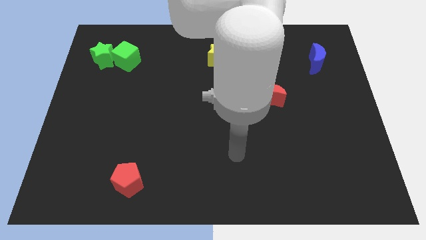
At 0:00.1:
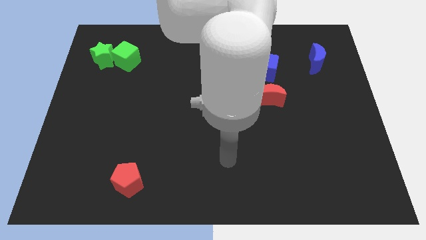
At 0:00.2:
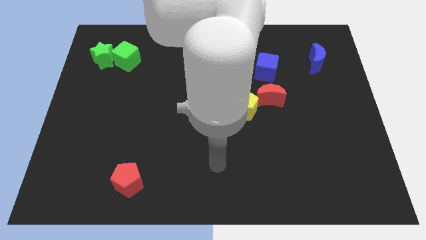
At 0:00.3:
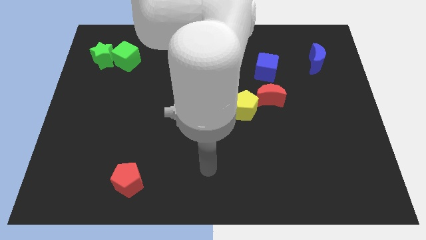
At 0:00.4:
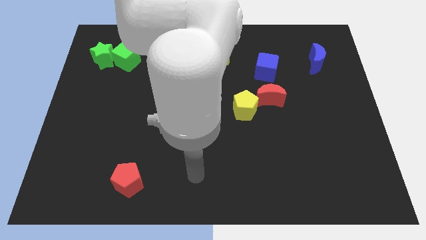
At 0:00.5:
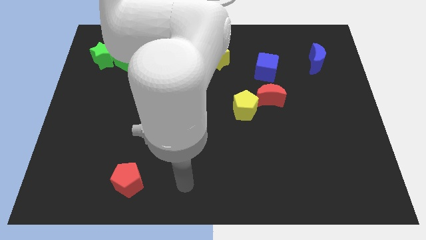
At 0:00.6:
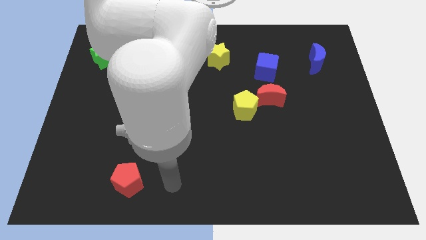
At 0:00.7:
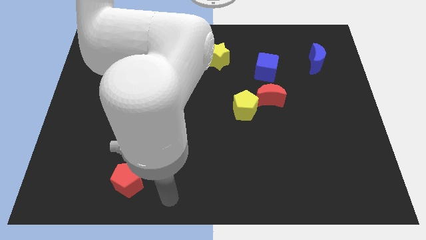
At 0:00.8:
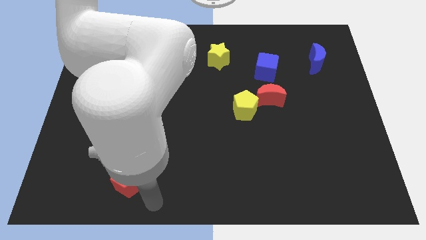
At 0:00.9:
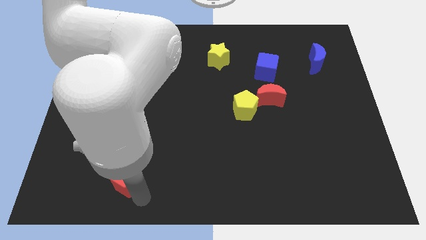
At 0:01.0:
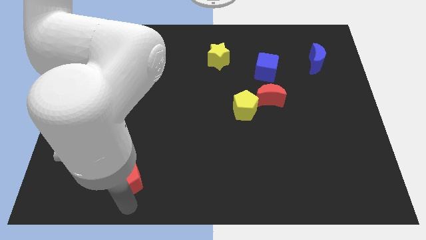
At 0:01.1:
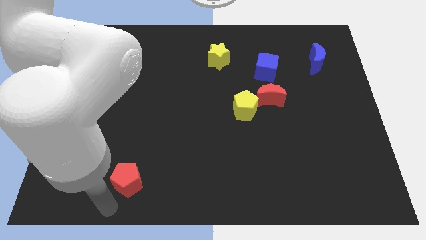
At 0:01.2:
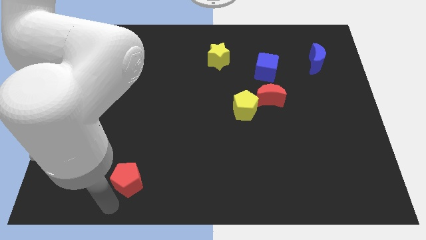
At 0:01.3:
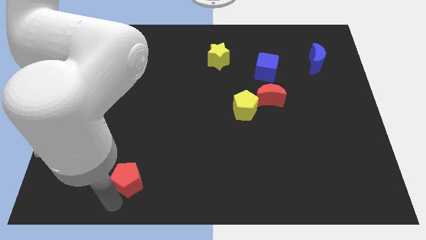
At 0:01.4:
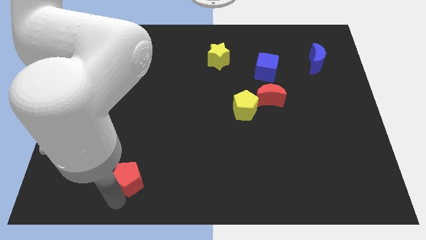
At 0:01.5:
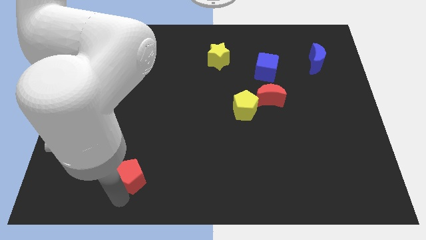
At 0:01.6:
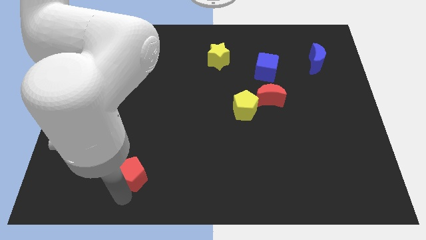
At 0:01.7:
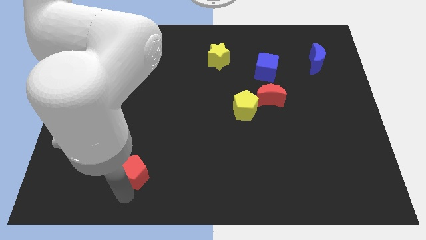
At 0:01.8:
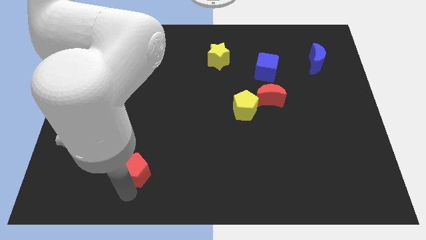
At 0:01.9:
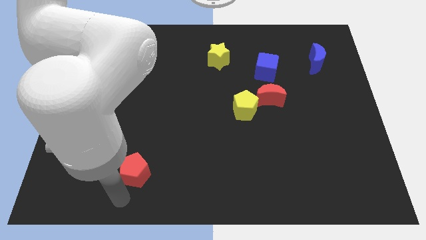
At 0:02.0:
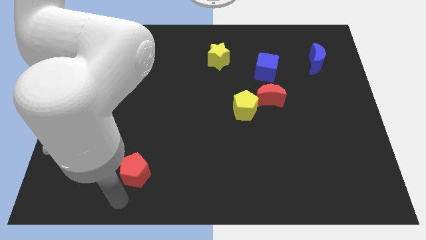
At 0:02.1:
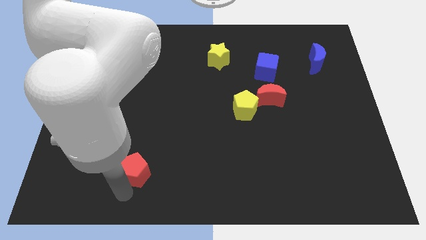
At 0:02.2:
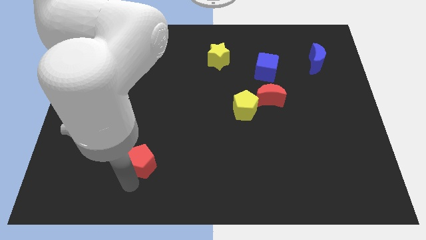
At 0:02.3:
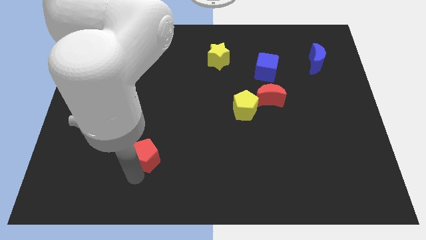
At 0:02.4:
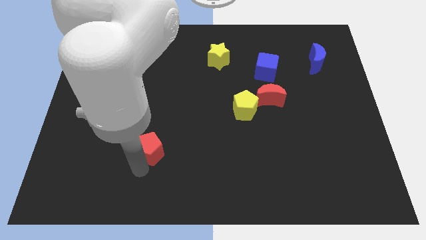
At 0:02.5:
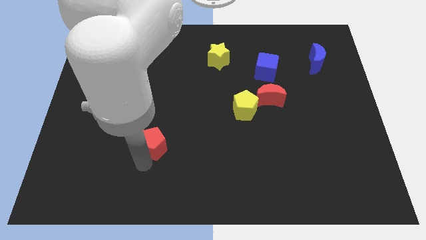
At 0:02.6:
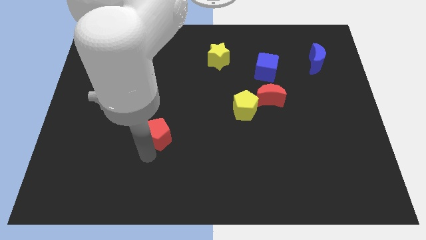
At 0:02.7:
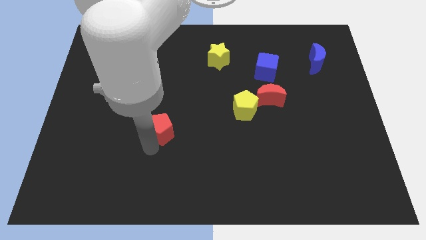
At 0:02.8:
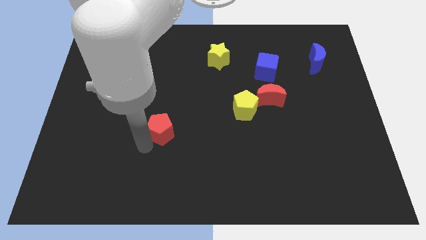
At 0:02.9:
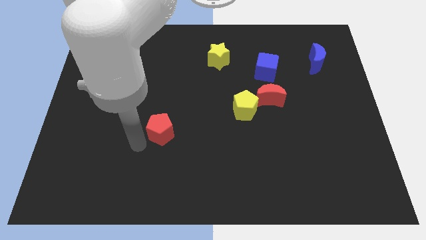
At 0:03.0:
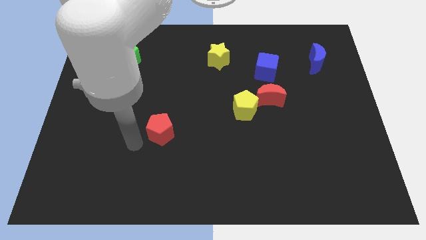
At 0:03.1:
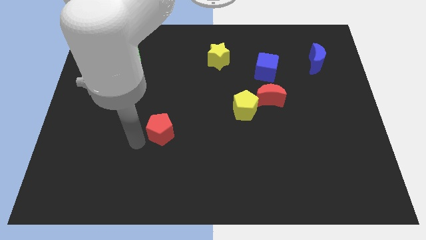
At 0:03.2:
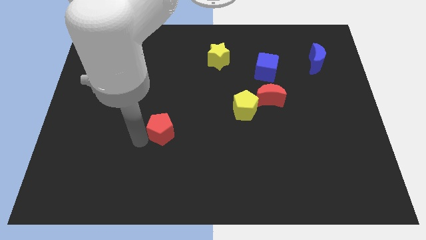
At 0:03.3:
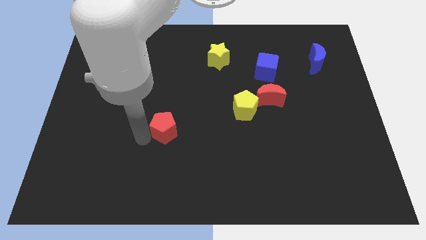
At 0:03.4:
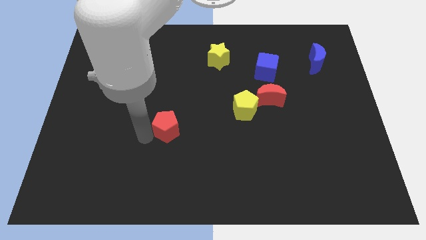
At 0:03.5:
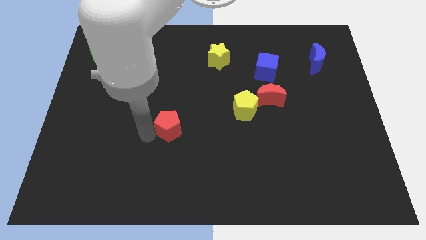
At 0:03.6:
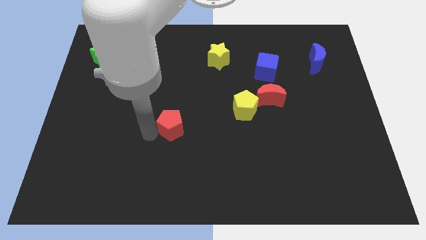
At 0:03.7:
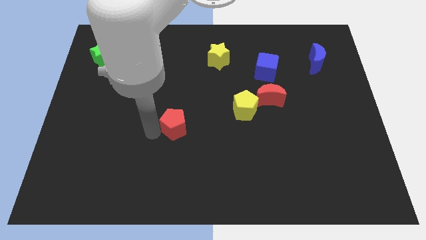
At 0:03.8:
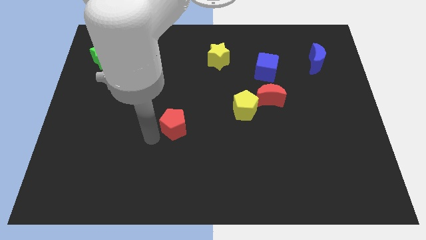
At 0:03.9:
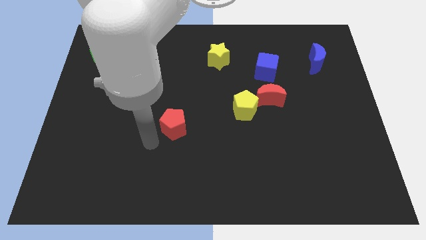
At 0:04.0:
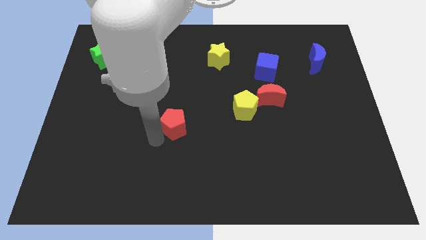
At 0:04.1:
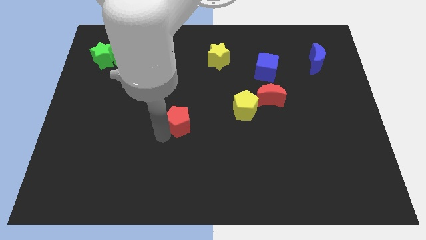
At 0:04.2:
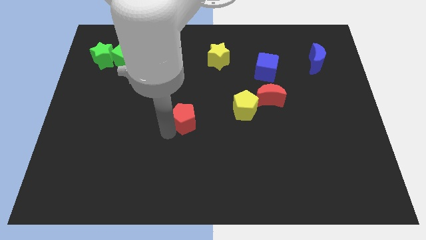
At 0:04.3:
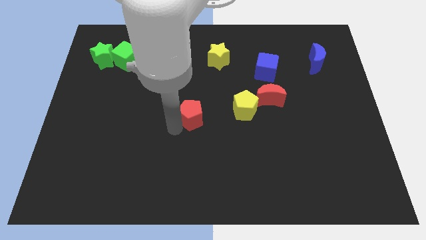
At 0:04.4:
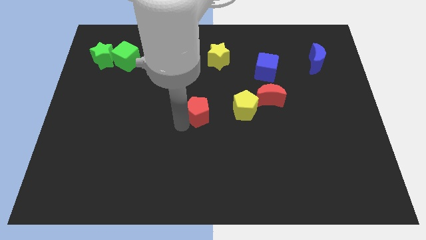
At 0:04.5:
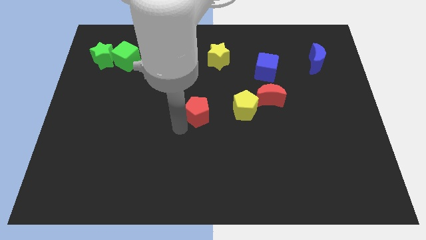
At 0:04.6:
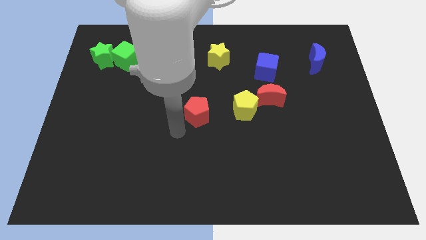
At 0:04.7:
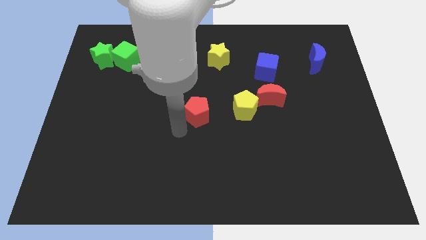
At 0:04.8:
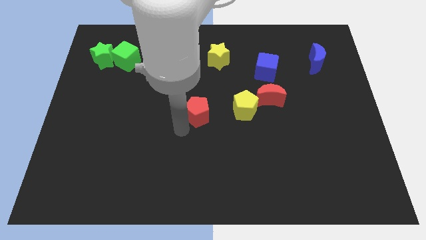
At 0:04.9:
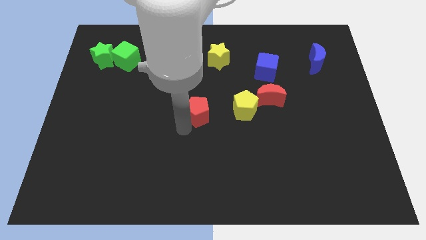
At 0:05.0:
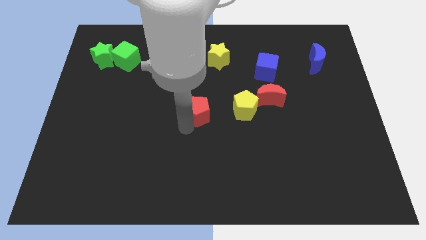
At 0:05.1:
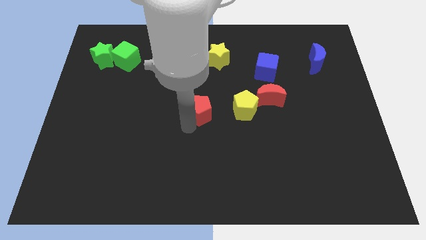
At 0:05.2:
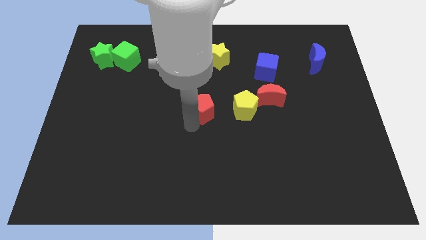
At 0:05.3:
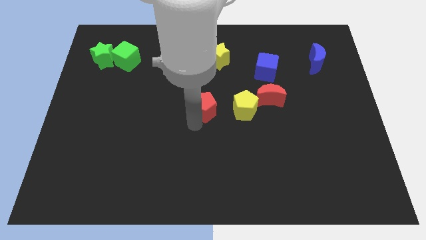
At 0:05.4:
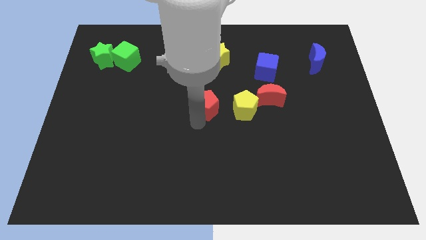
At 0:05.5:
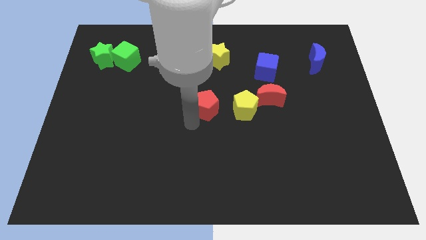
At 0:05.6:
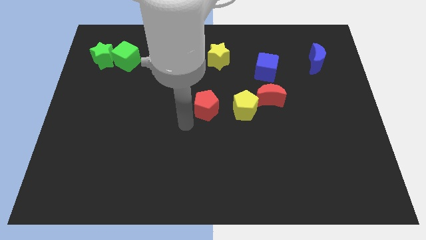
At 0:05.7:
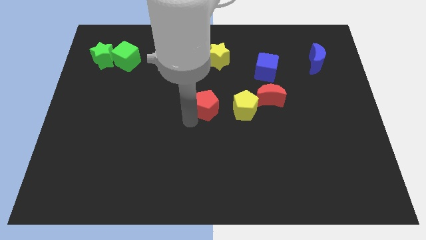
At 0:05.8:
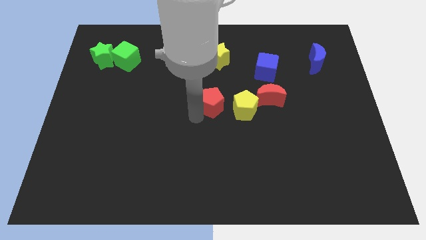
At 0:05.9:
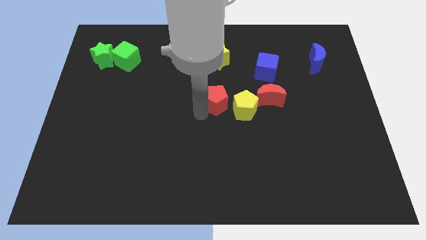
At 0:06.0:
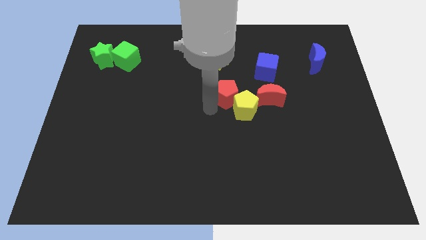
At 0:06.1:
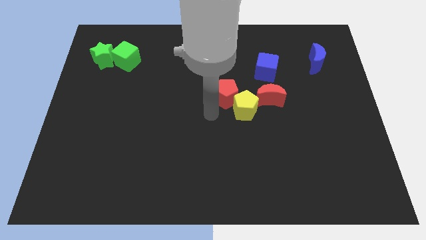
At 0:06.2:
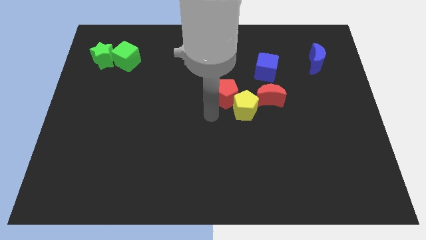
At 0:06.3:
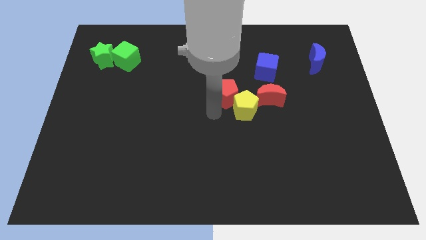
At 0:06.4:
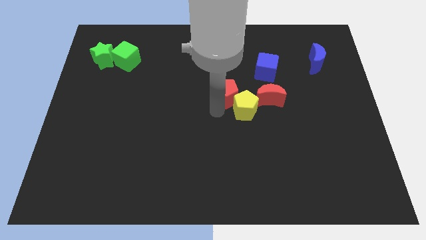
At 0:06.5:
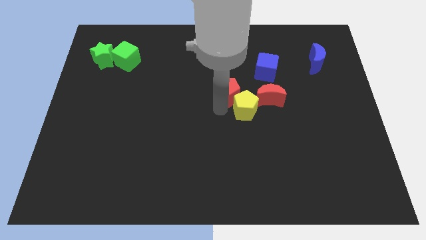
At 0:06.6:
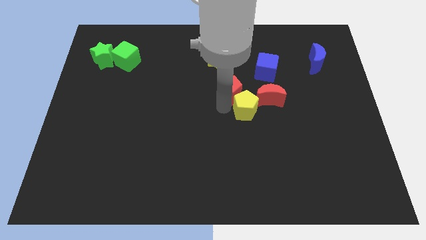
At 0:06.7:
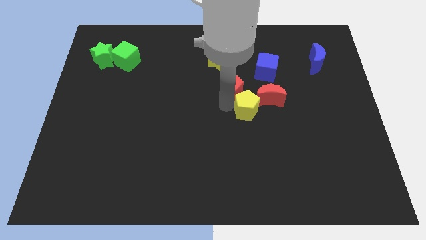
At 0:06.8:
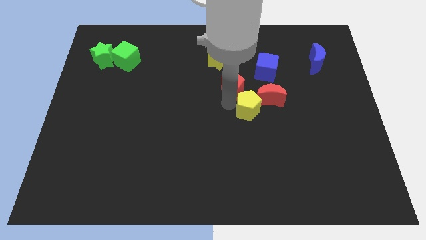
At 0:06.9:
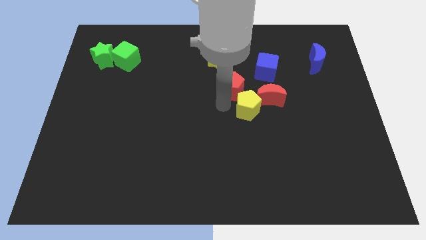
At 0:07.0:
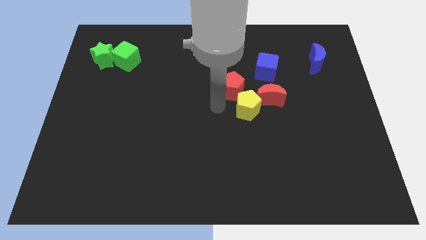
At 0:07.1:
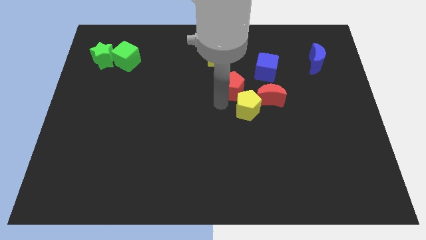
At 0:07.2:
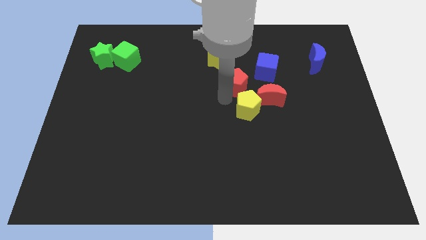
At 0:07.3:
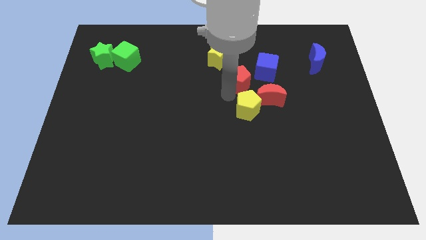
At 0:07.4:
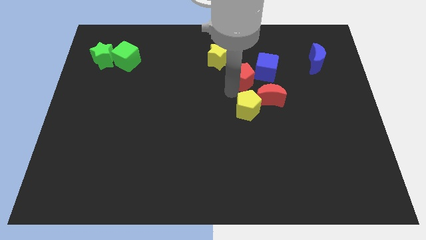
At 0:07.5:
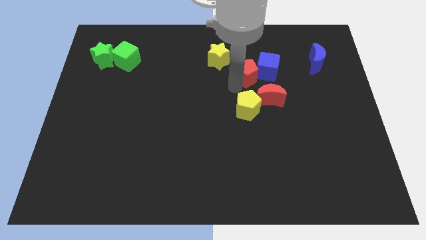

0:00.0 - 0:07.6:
slide the red pentagon close to the blue cube
